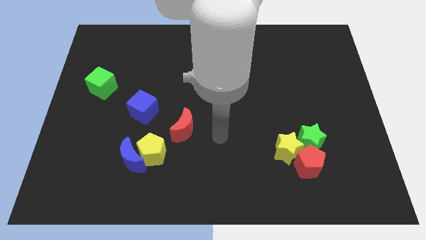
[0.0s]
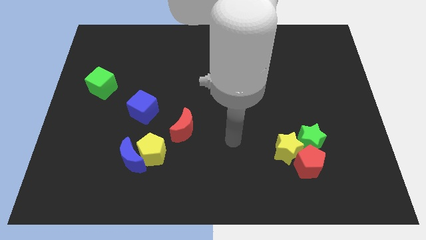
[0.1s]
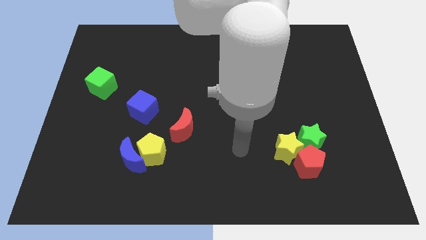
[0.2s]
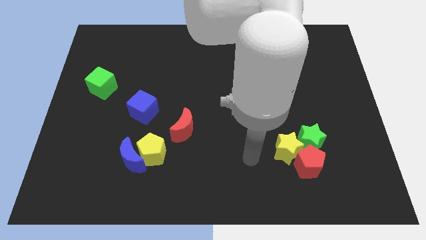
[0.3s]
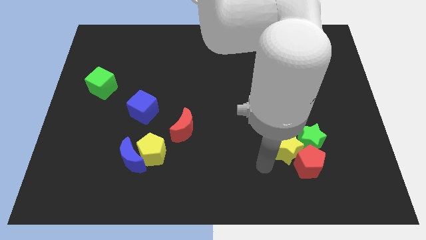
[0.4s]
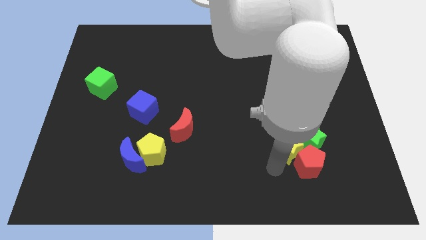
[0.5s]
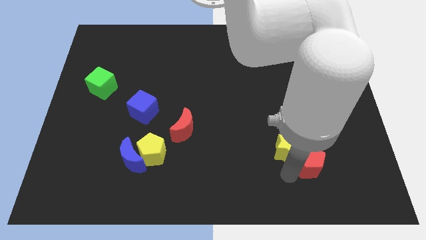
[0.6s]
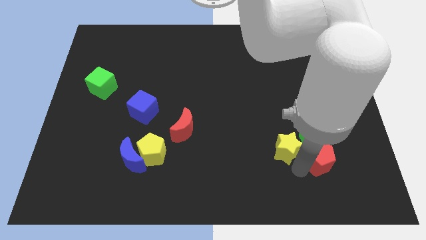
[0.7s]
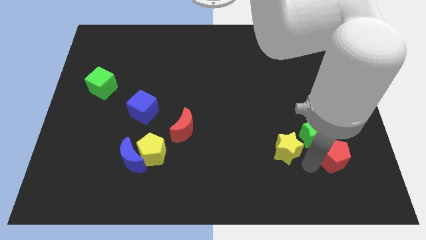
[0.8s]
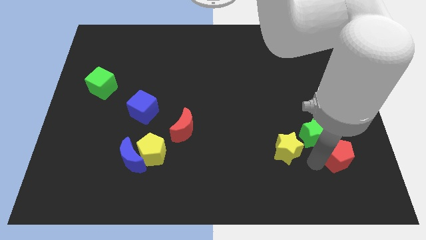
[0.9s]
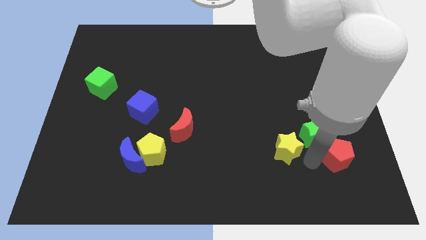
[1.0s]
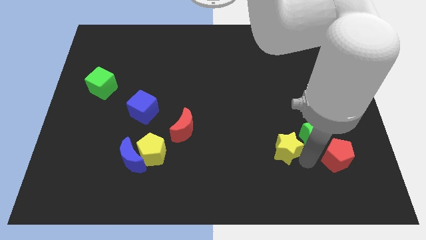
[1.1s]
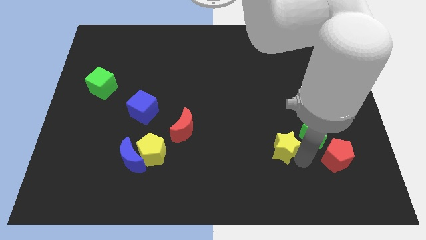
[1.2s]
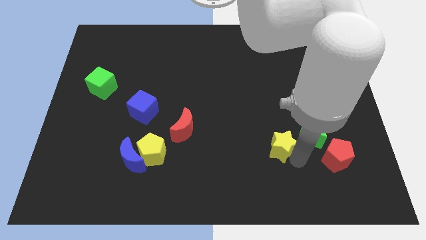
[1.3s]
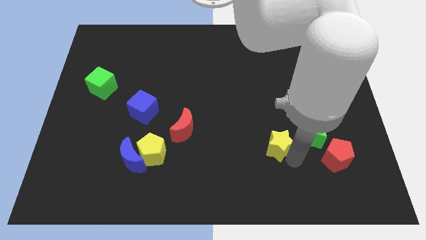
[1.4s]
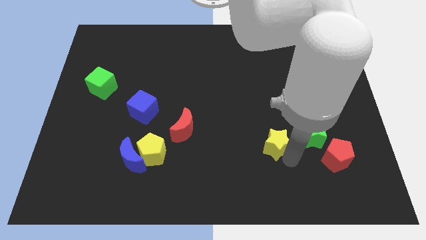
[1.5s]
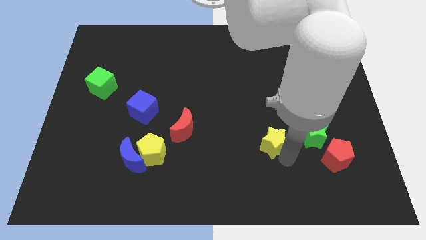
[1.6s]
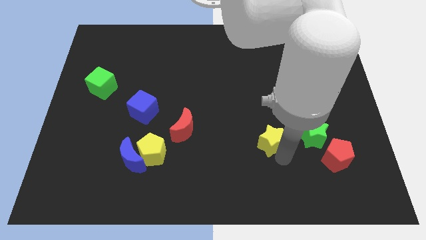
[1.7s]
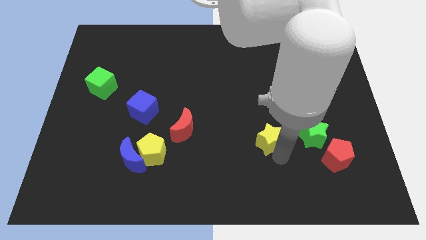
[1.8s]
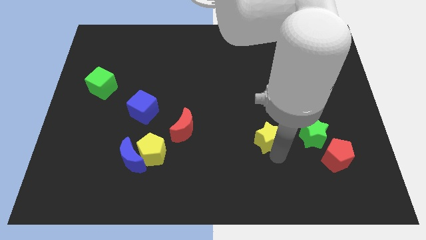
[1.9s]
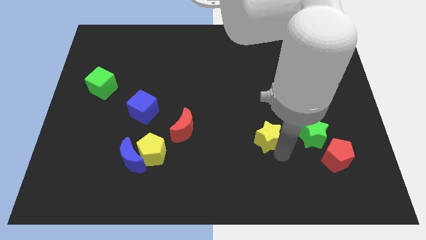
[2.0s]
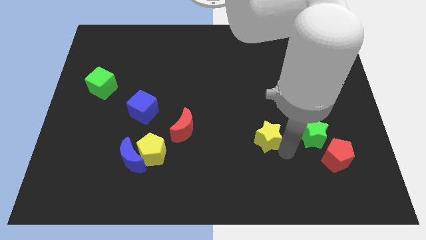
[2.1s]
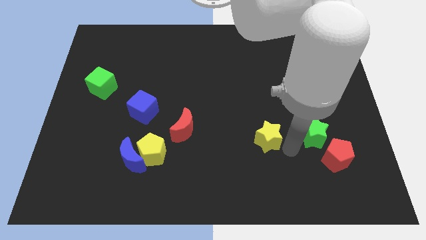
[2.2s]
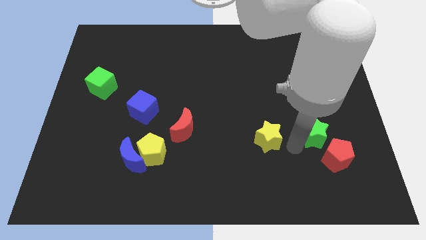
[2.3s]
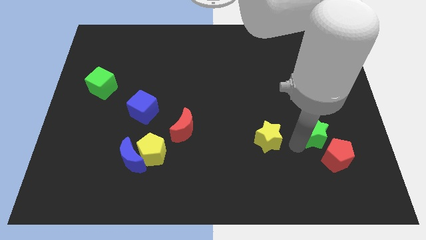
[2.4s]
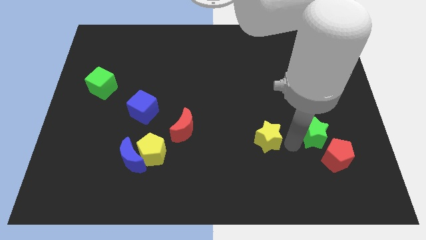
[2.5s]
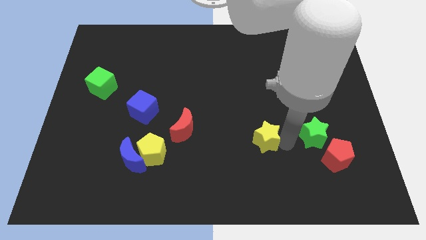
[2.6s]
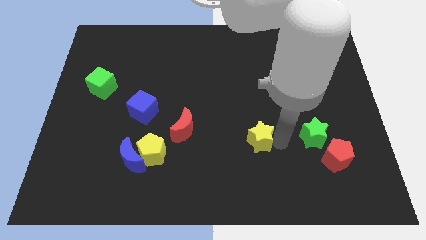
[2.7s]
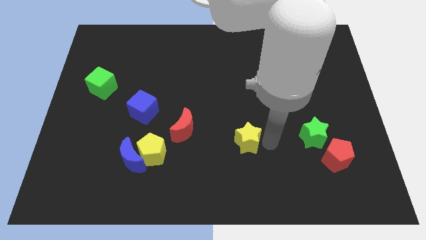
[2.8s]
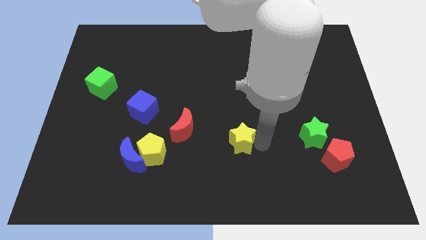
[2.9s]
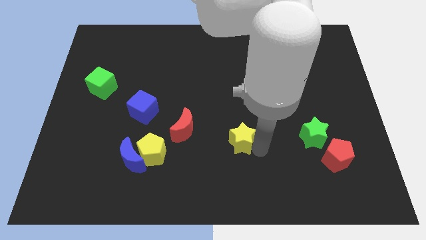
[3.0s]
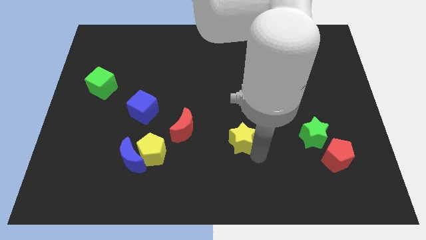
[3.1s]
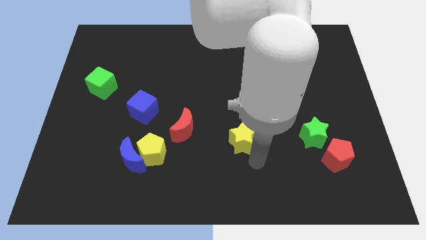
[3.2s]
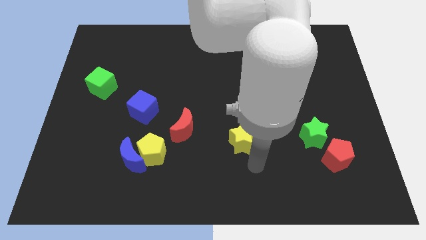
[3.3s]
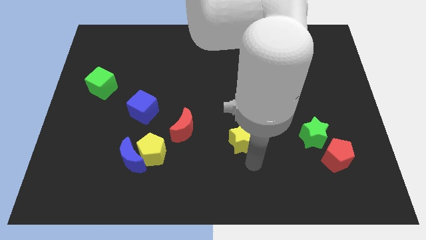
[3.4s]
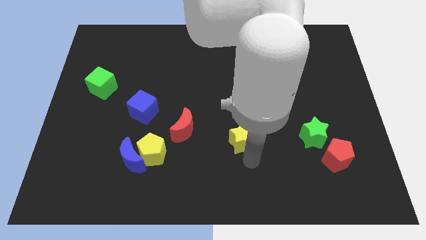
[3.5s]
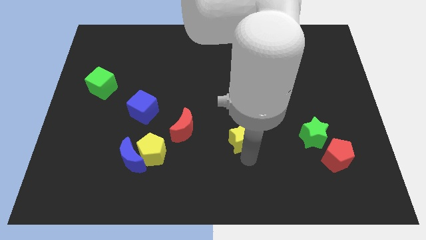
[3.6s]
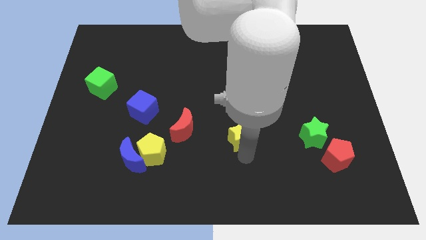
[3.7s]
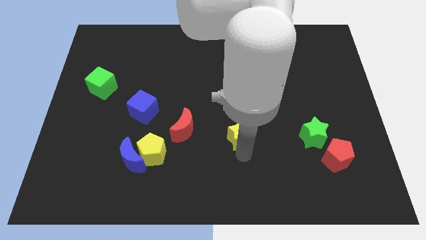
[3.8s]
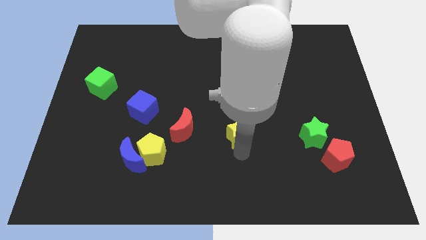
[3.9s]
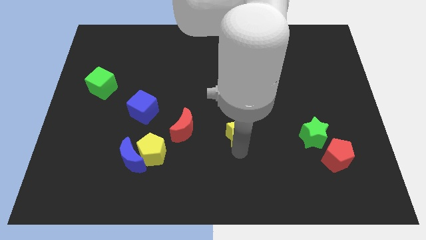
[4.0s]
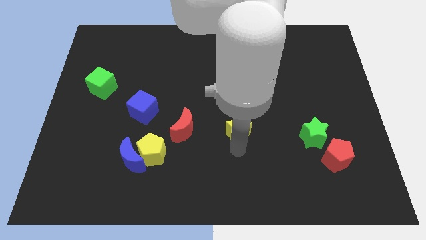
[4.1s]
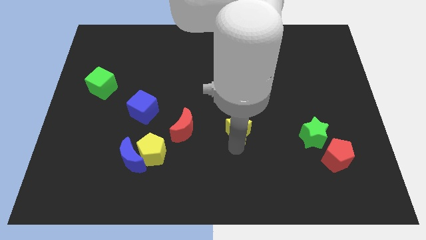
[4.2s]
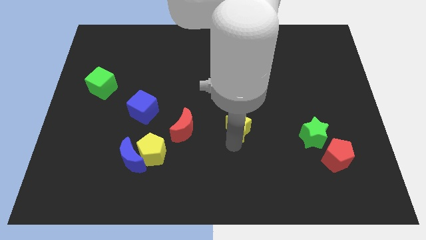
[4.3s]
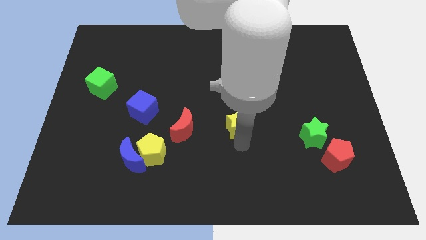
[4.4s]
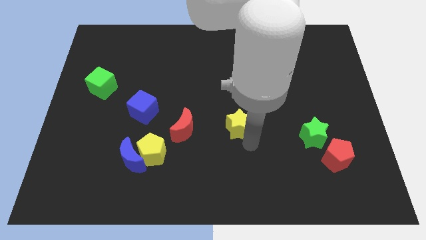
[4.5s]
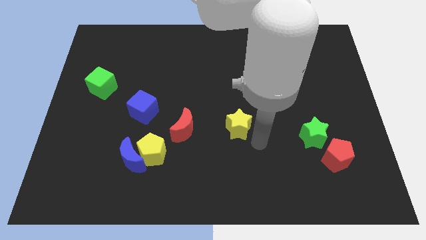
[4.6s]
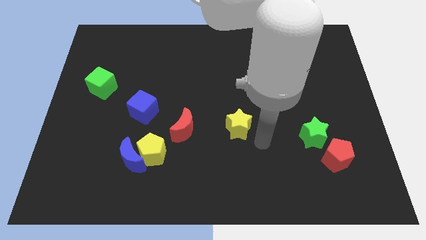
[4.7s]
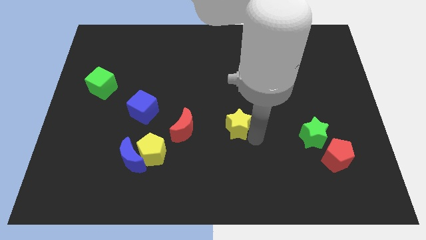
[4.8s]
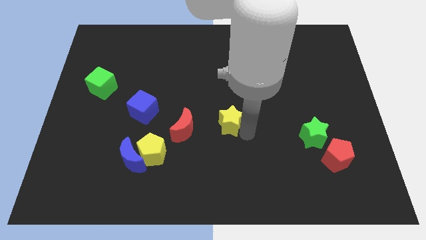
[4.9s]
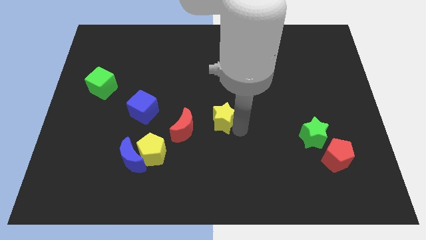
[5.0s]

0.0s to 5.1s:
push the yellow star to the top right side of the red moon

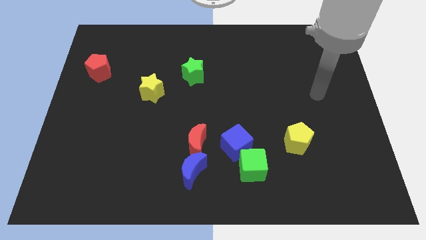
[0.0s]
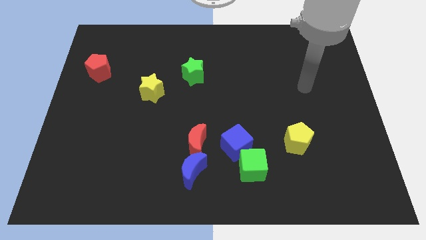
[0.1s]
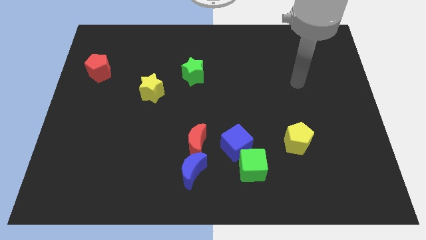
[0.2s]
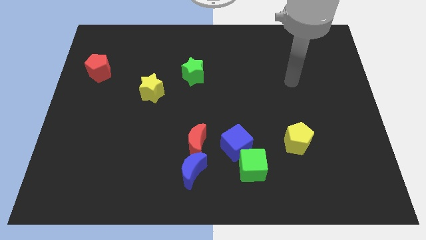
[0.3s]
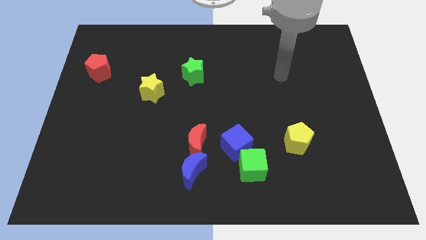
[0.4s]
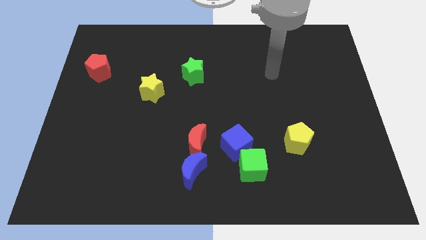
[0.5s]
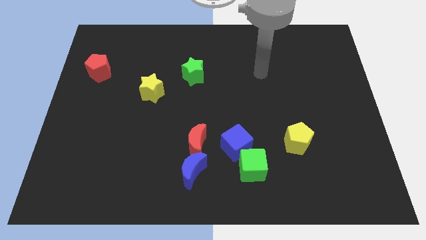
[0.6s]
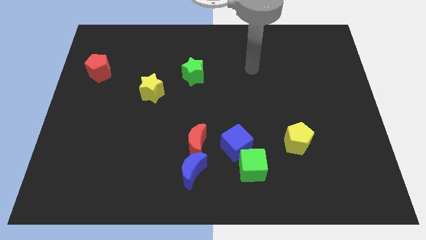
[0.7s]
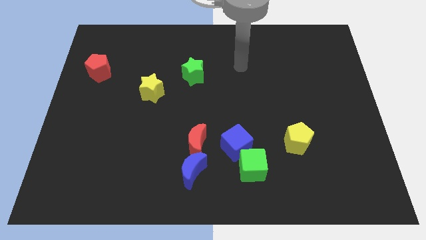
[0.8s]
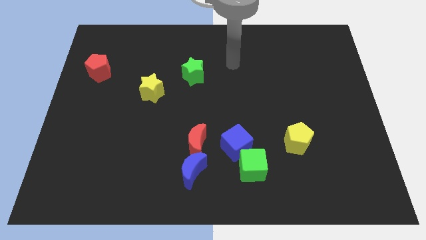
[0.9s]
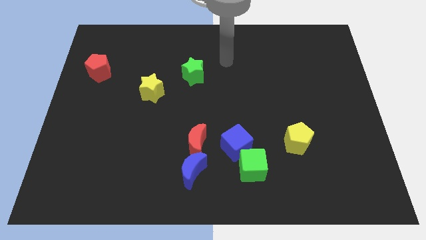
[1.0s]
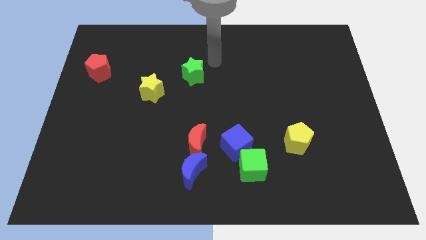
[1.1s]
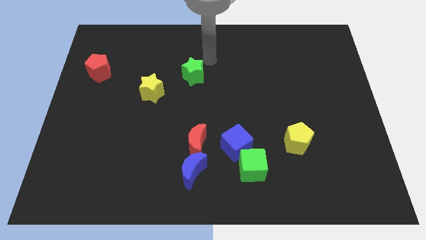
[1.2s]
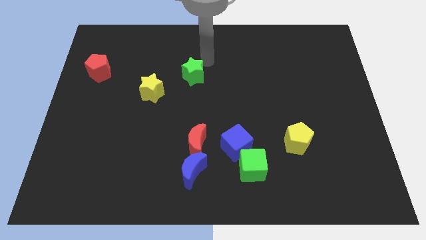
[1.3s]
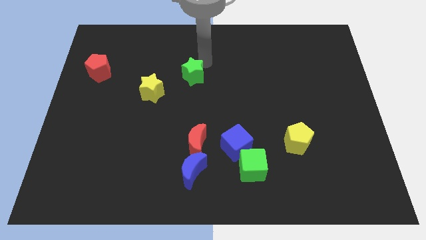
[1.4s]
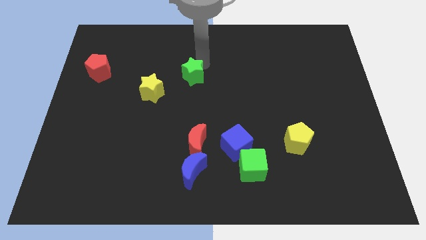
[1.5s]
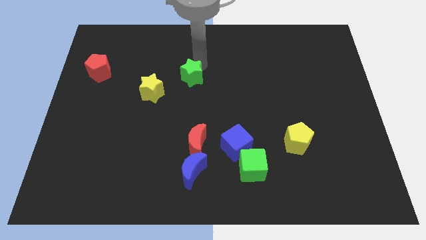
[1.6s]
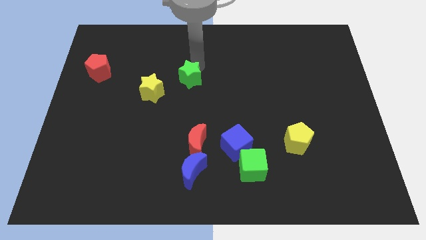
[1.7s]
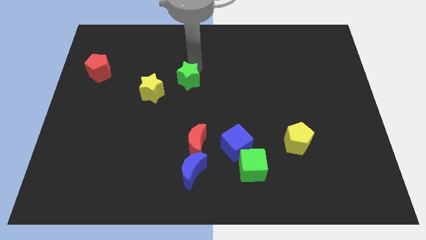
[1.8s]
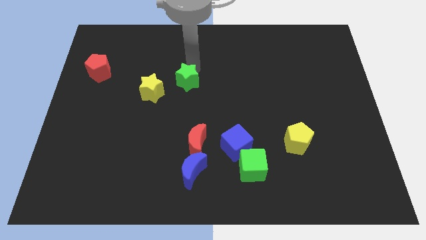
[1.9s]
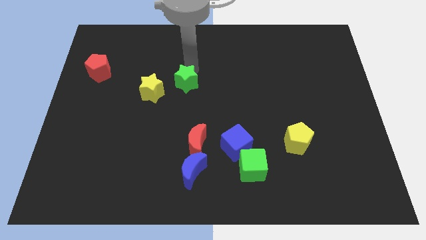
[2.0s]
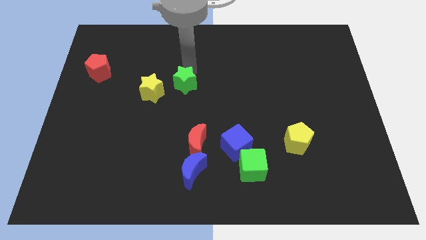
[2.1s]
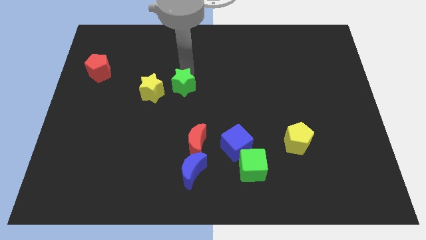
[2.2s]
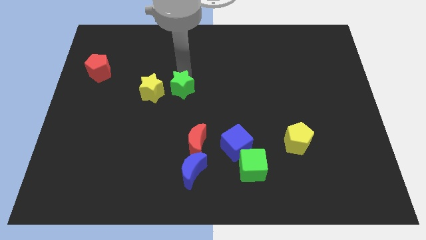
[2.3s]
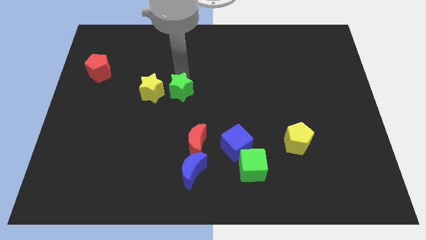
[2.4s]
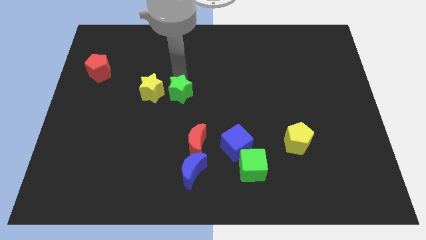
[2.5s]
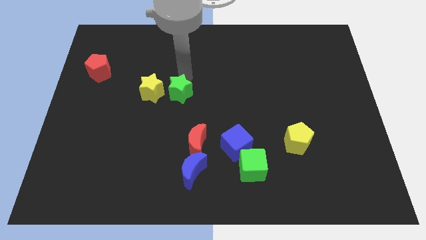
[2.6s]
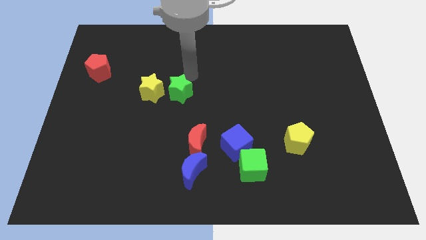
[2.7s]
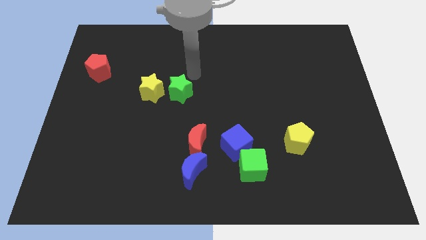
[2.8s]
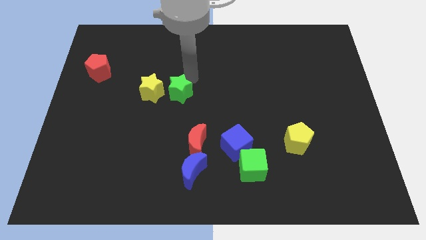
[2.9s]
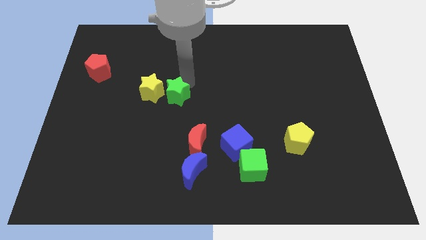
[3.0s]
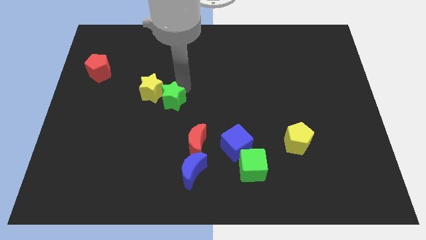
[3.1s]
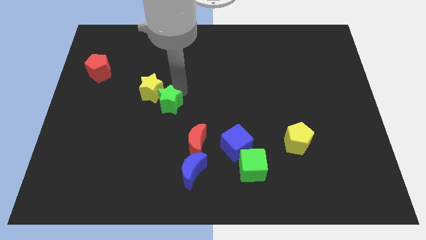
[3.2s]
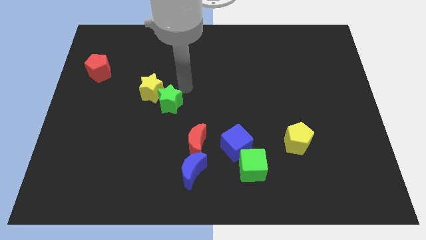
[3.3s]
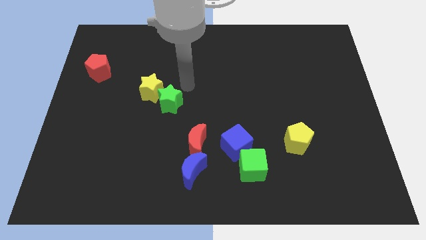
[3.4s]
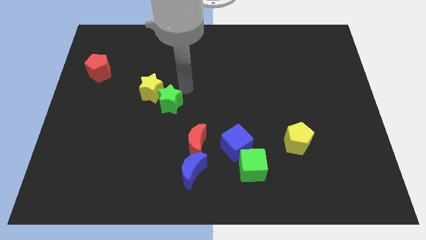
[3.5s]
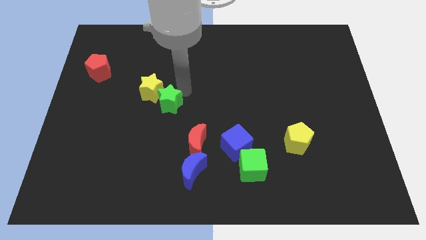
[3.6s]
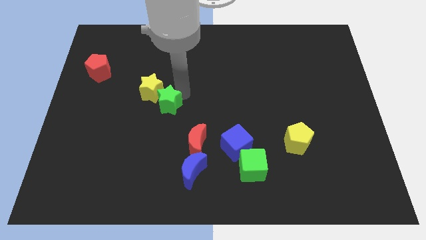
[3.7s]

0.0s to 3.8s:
put the green star below the yellow star
